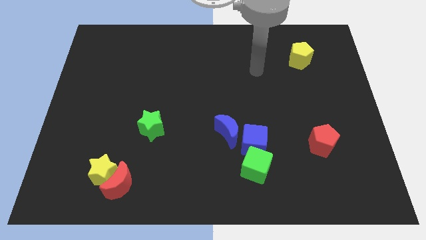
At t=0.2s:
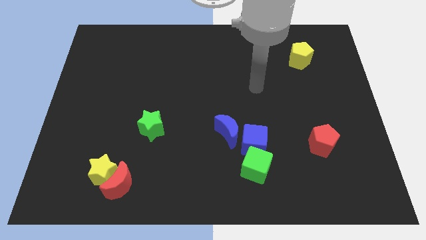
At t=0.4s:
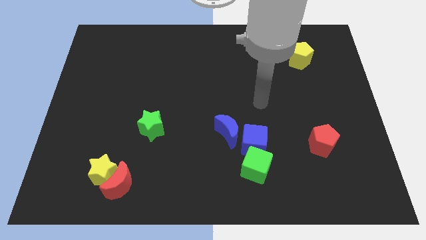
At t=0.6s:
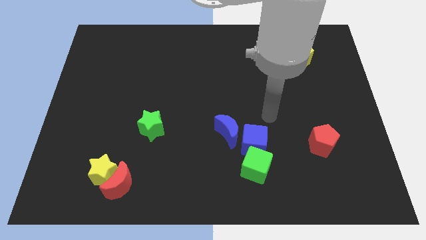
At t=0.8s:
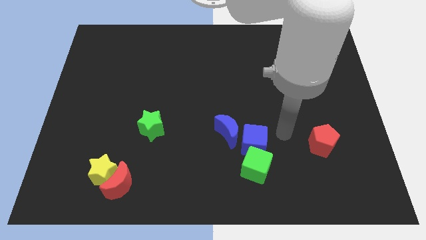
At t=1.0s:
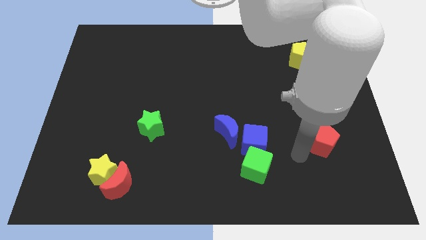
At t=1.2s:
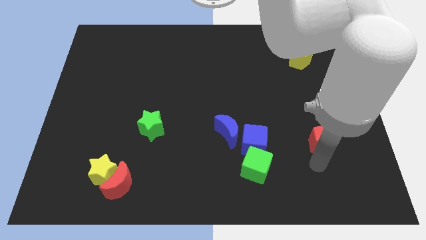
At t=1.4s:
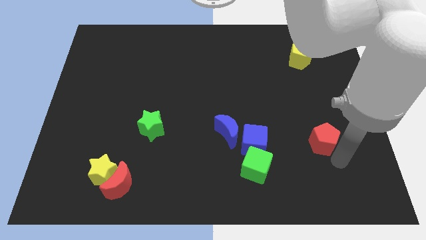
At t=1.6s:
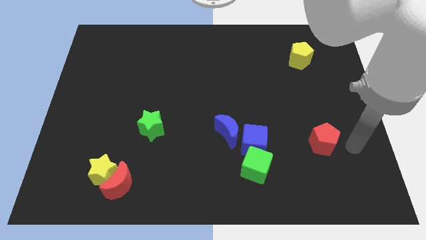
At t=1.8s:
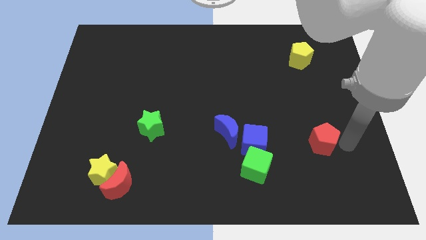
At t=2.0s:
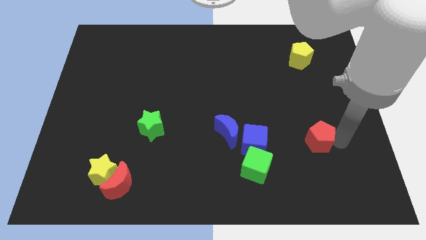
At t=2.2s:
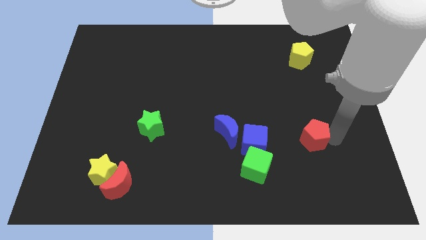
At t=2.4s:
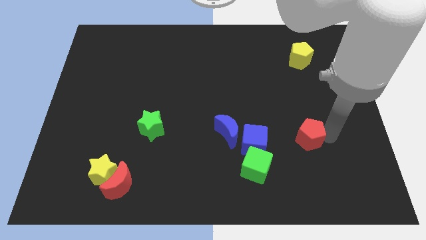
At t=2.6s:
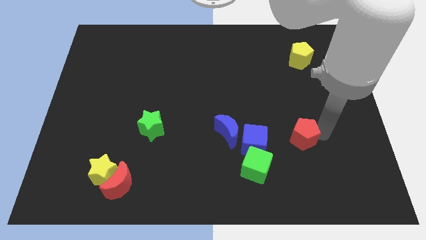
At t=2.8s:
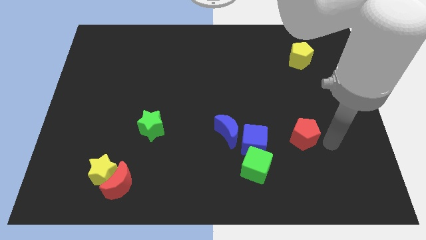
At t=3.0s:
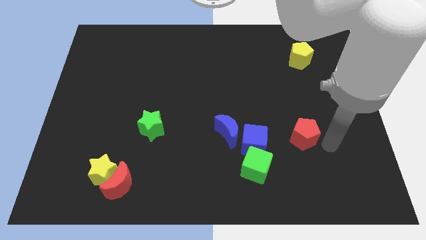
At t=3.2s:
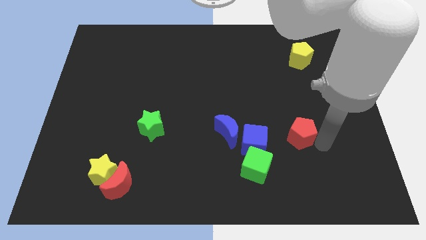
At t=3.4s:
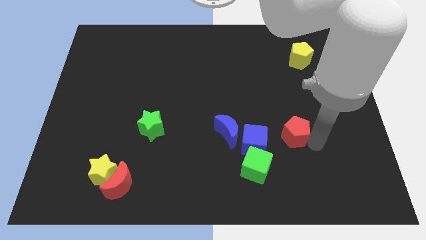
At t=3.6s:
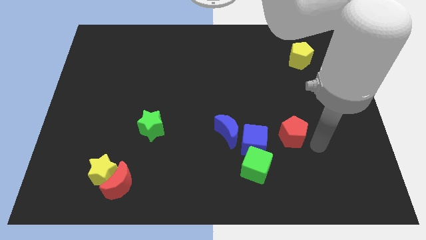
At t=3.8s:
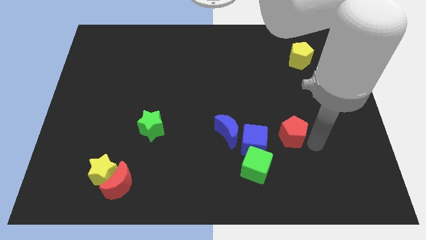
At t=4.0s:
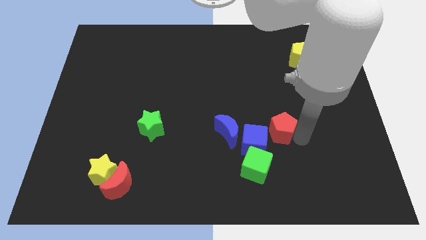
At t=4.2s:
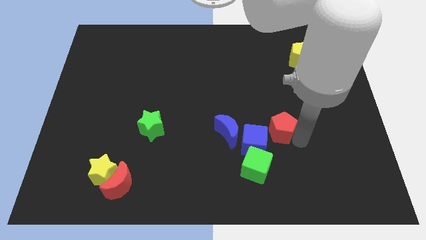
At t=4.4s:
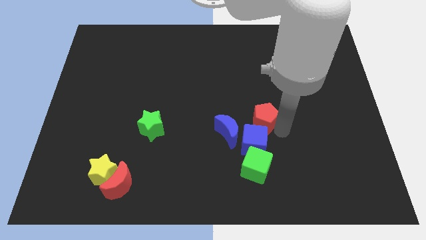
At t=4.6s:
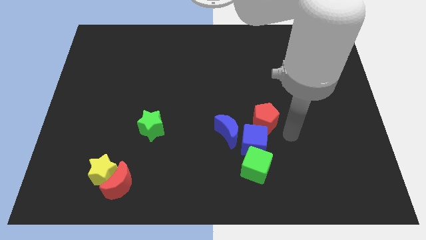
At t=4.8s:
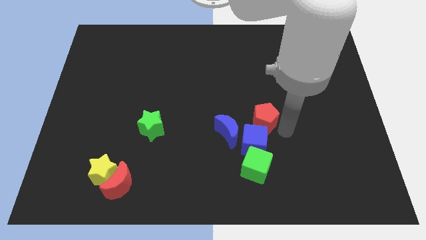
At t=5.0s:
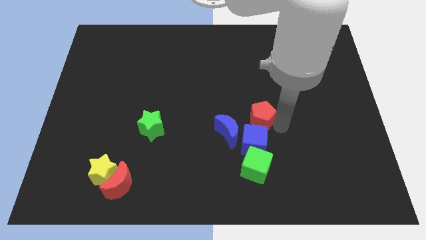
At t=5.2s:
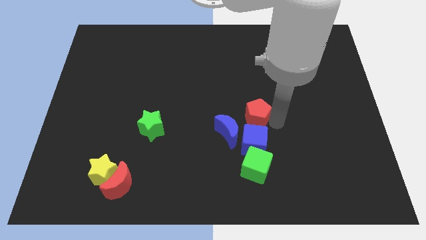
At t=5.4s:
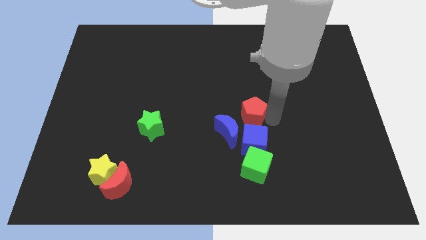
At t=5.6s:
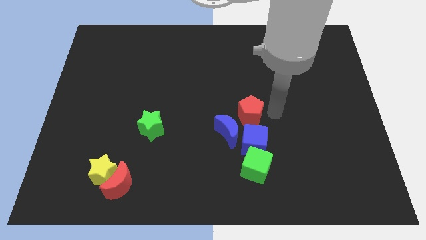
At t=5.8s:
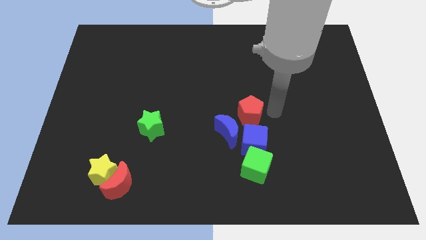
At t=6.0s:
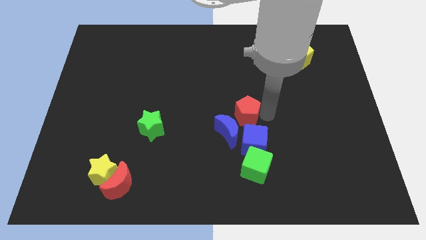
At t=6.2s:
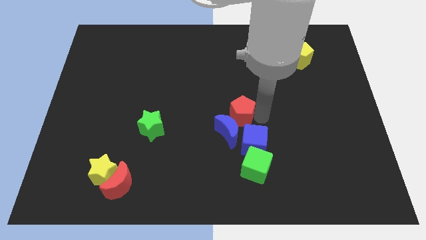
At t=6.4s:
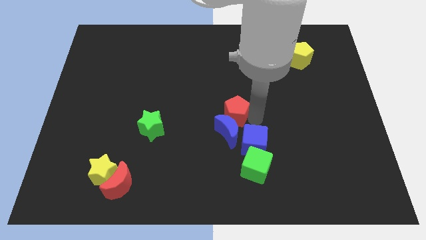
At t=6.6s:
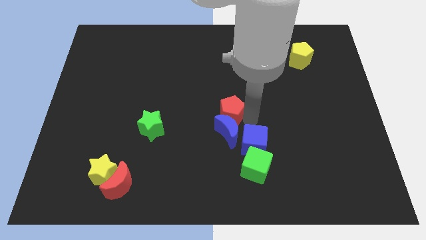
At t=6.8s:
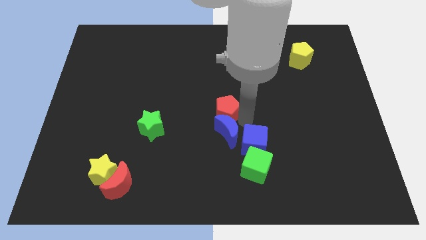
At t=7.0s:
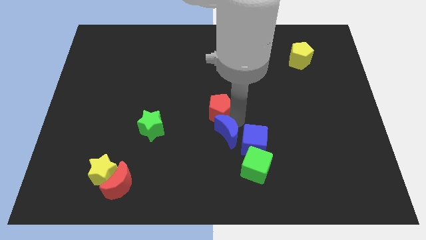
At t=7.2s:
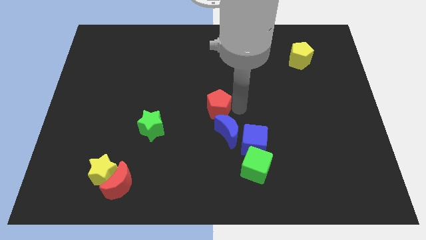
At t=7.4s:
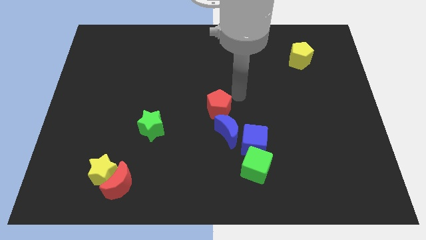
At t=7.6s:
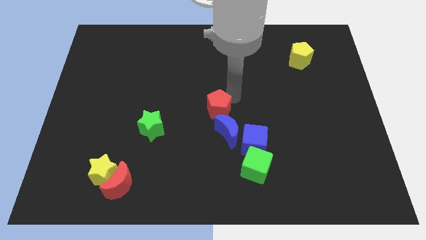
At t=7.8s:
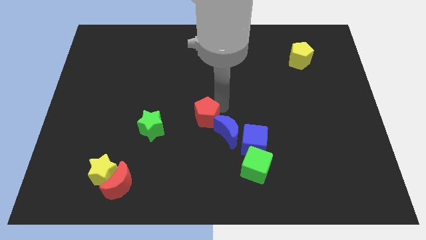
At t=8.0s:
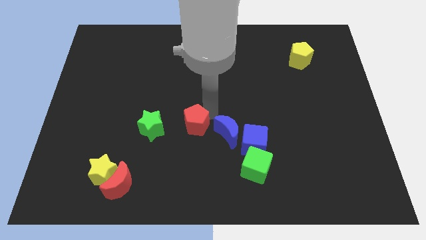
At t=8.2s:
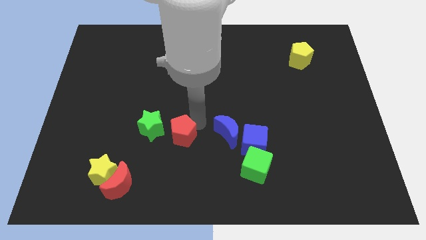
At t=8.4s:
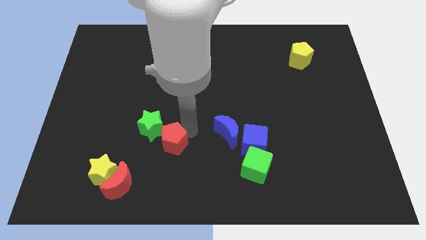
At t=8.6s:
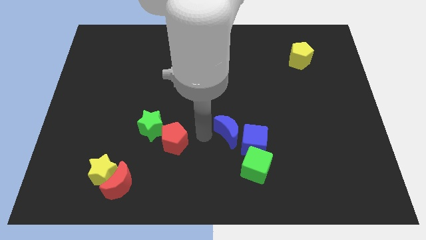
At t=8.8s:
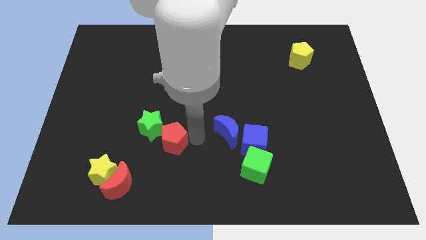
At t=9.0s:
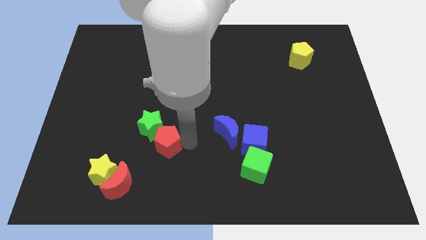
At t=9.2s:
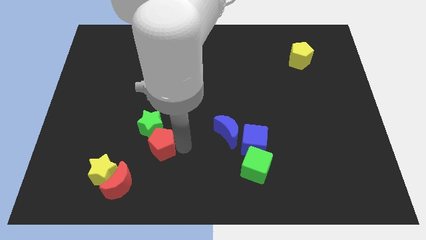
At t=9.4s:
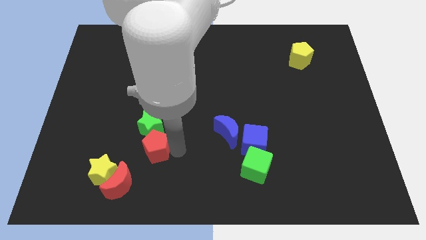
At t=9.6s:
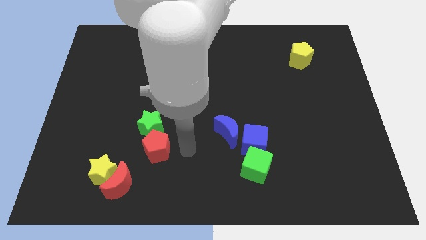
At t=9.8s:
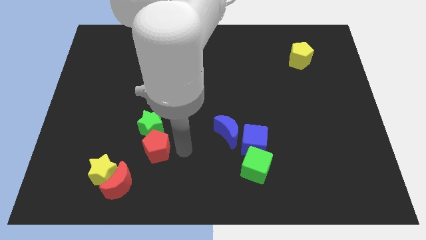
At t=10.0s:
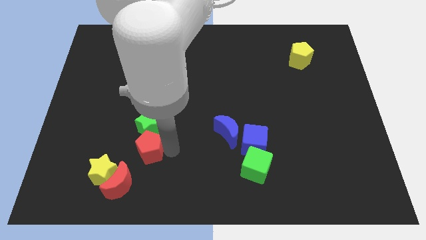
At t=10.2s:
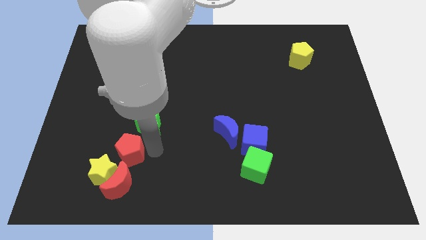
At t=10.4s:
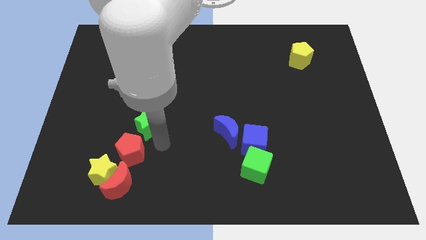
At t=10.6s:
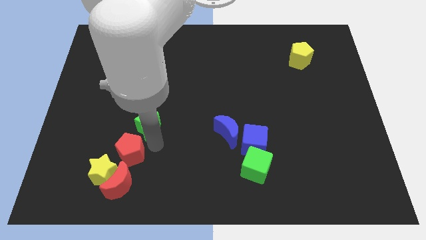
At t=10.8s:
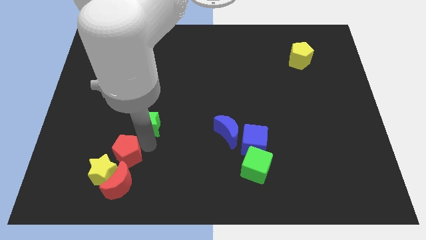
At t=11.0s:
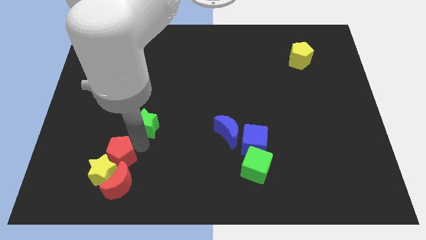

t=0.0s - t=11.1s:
put the red pentagon to the top left of the red moon

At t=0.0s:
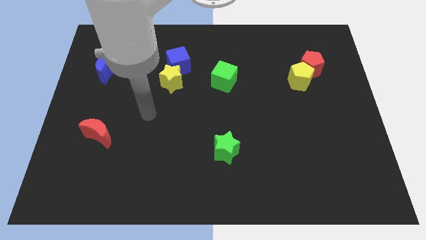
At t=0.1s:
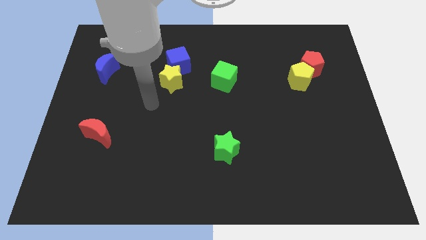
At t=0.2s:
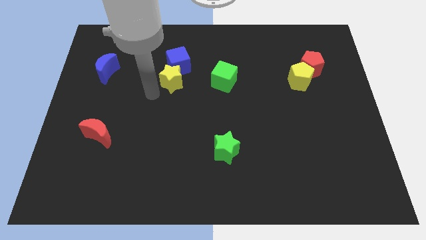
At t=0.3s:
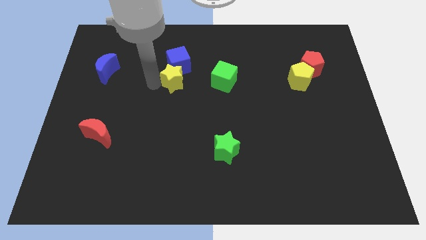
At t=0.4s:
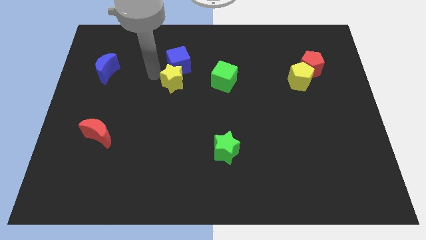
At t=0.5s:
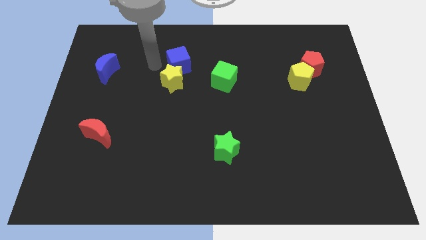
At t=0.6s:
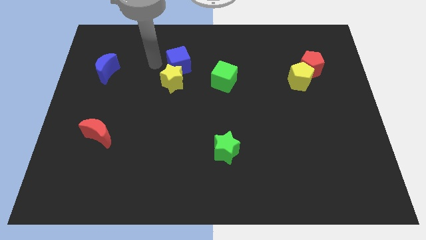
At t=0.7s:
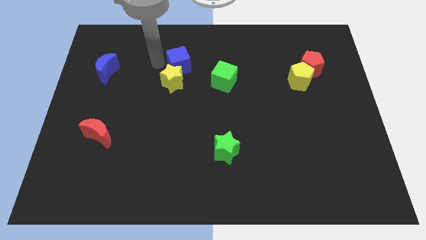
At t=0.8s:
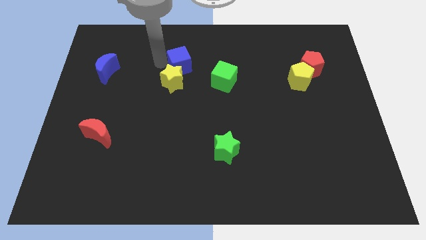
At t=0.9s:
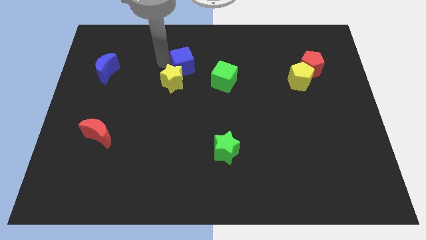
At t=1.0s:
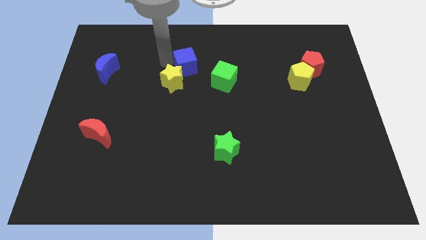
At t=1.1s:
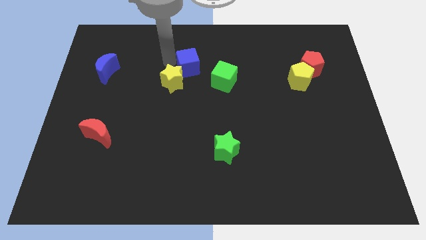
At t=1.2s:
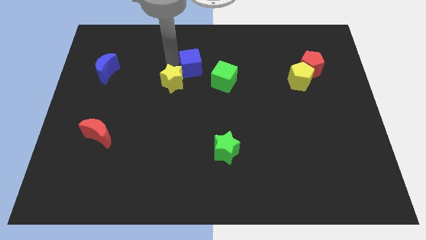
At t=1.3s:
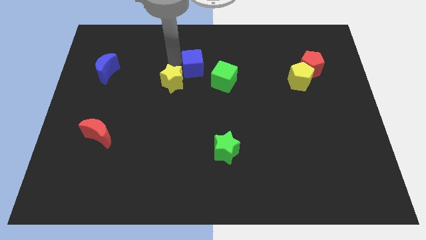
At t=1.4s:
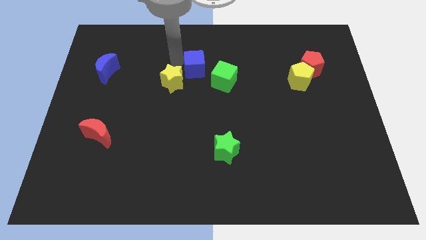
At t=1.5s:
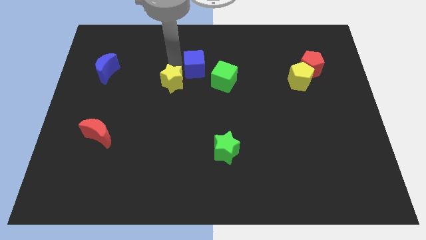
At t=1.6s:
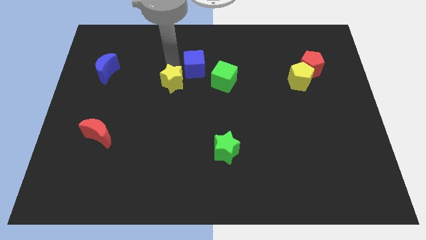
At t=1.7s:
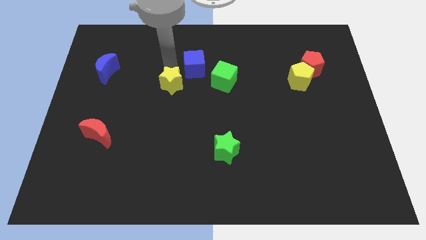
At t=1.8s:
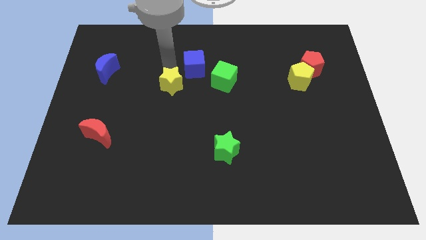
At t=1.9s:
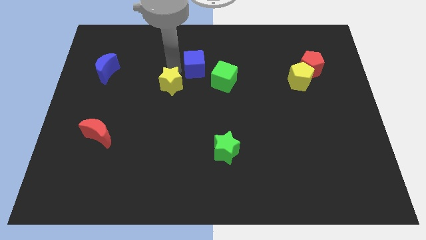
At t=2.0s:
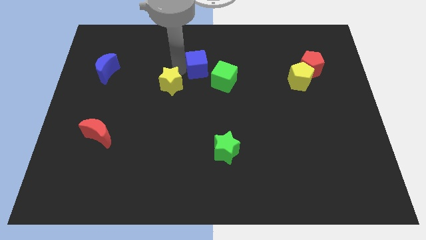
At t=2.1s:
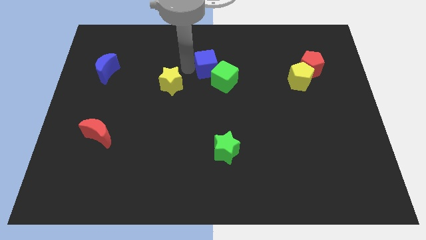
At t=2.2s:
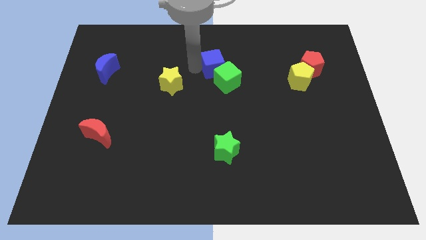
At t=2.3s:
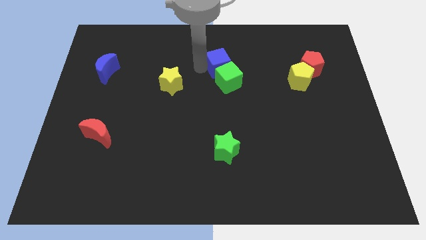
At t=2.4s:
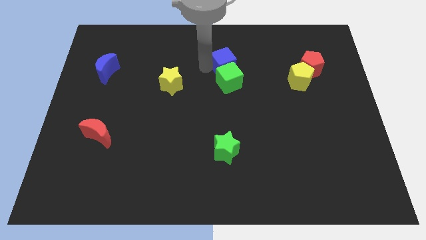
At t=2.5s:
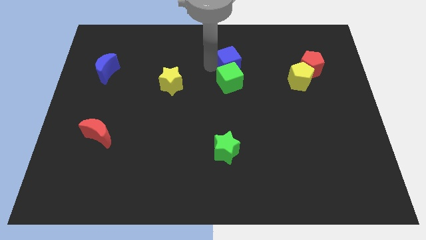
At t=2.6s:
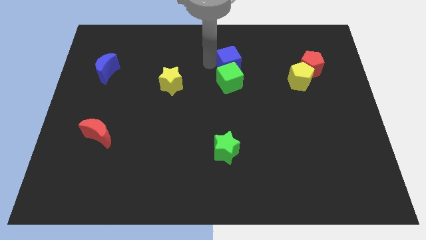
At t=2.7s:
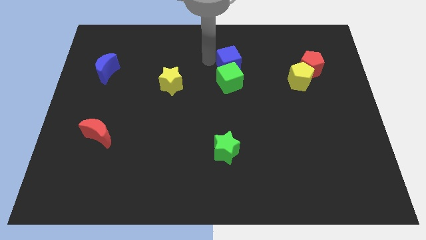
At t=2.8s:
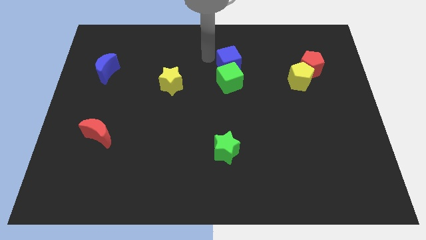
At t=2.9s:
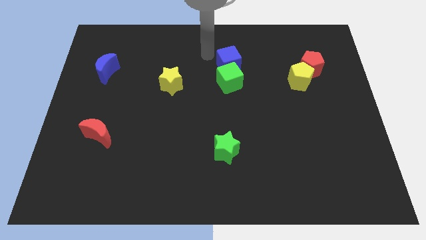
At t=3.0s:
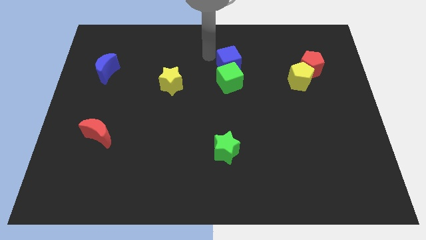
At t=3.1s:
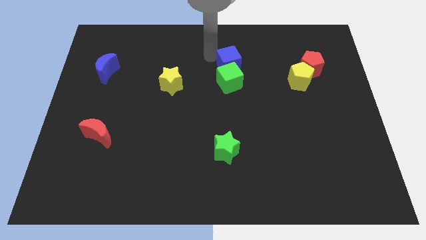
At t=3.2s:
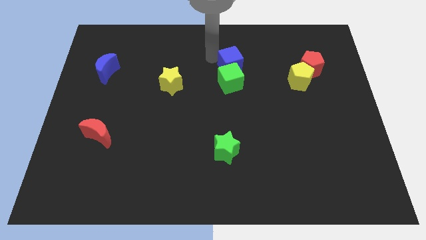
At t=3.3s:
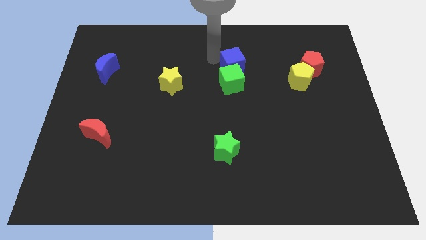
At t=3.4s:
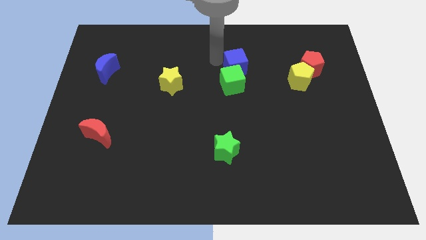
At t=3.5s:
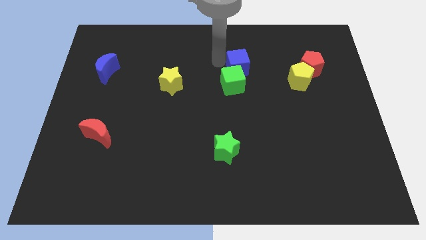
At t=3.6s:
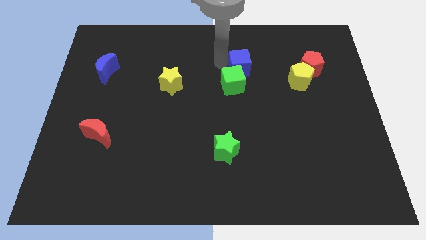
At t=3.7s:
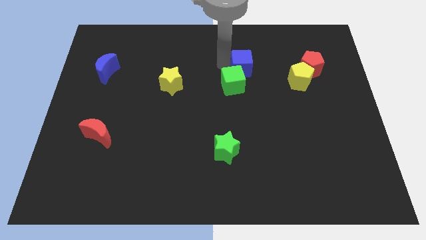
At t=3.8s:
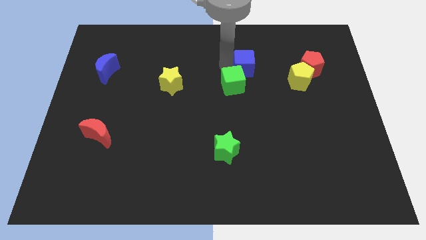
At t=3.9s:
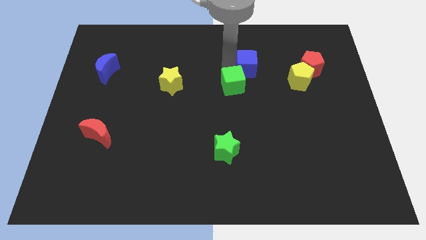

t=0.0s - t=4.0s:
put the blue cube left of the yellow pentagon
